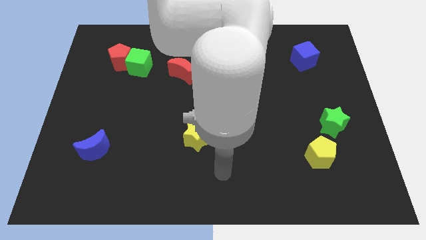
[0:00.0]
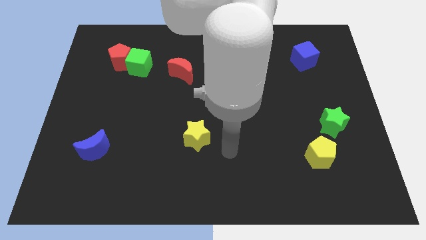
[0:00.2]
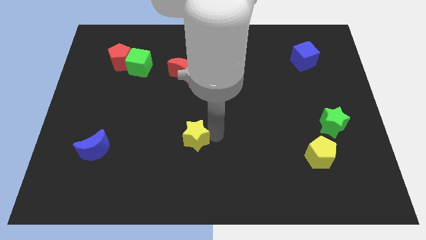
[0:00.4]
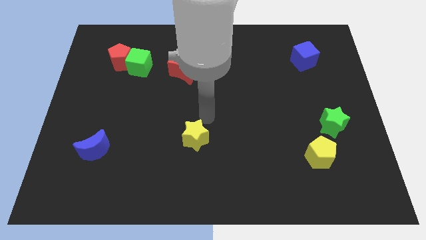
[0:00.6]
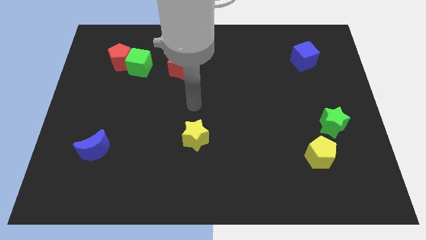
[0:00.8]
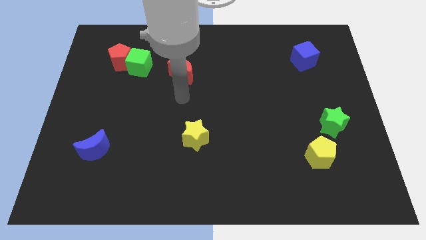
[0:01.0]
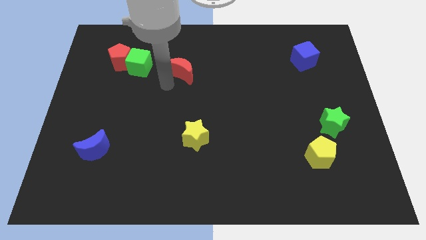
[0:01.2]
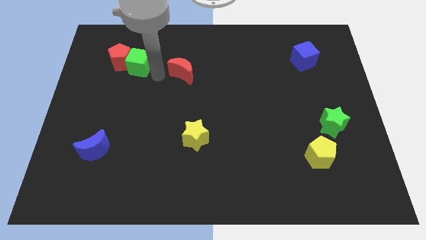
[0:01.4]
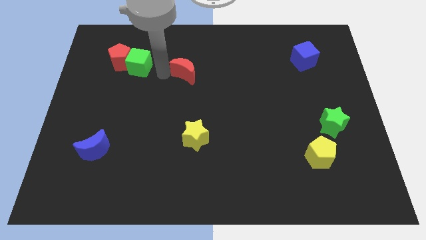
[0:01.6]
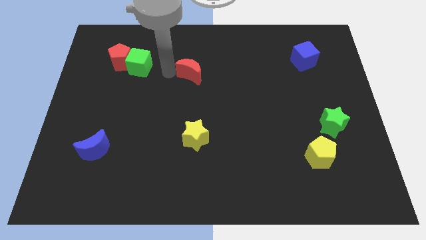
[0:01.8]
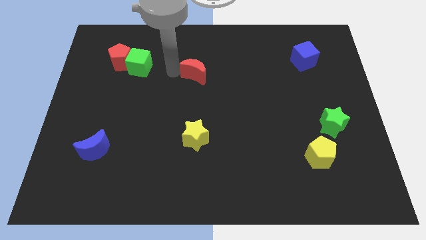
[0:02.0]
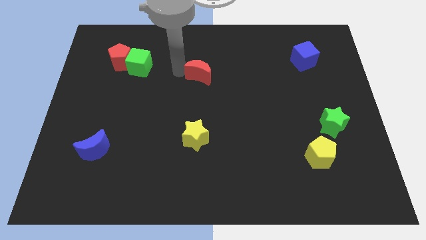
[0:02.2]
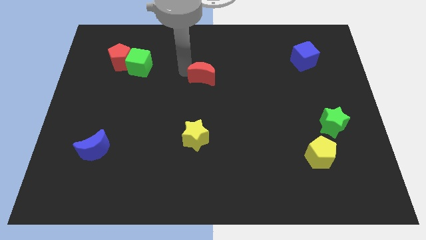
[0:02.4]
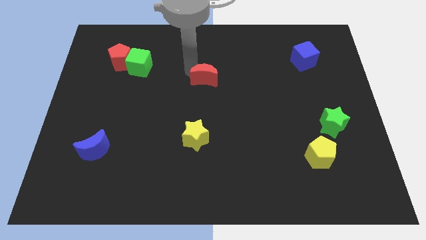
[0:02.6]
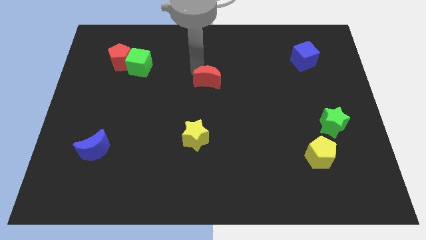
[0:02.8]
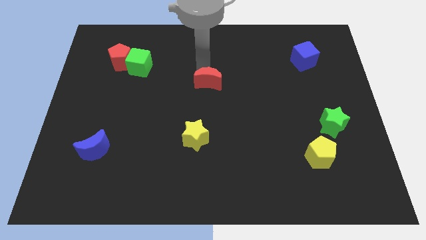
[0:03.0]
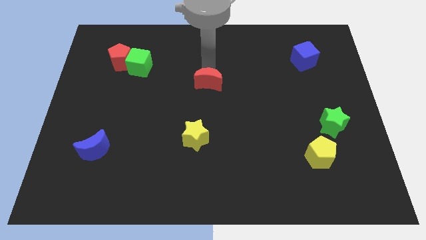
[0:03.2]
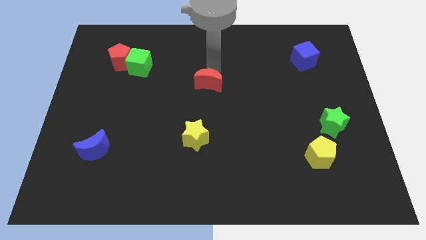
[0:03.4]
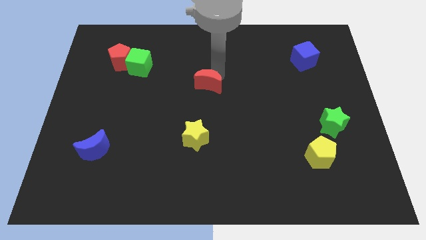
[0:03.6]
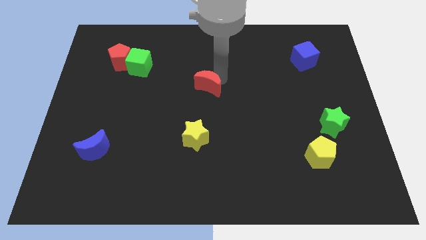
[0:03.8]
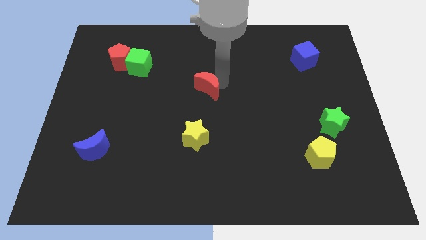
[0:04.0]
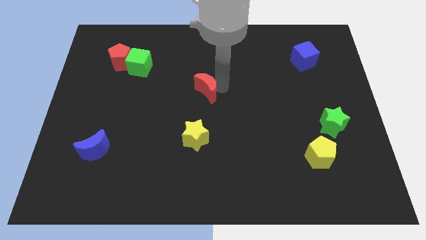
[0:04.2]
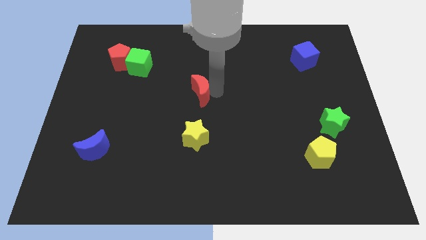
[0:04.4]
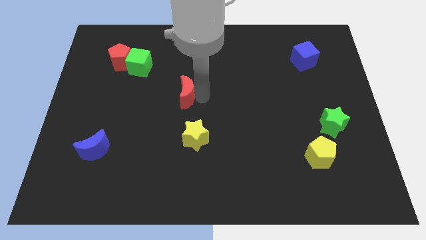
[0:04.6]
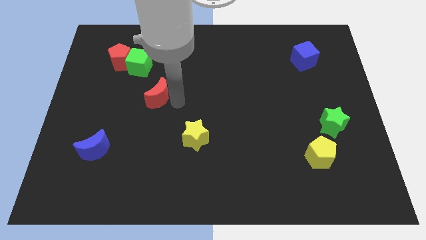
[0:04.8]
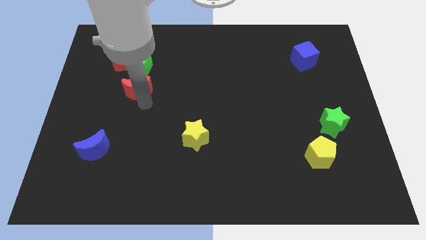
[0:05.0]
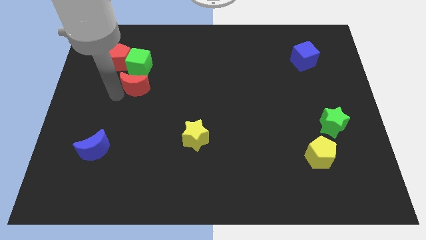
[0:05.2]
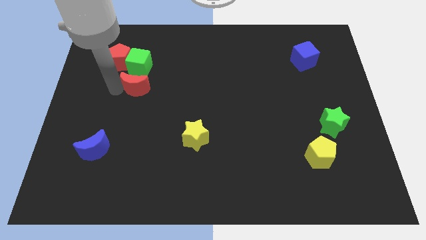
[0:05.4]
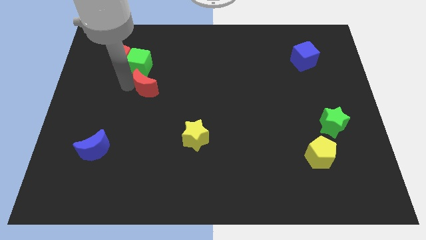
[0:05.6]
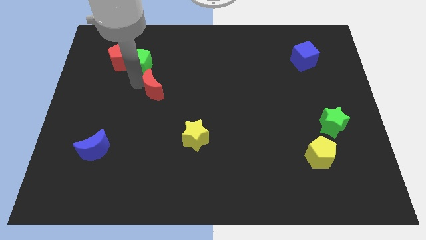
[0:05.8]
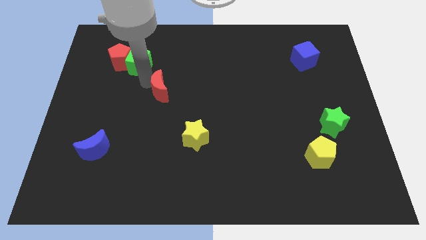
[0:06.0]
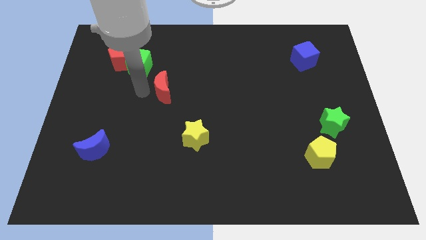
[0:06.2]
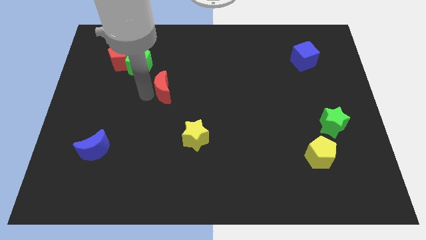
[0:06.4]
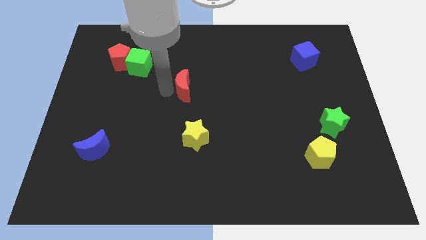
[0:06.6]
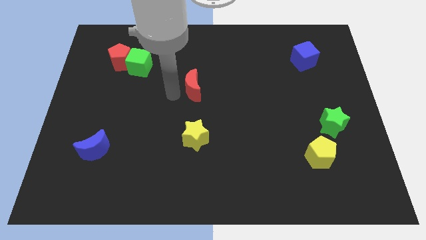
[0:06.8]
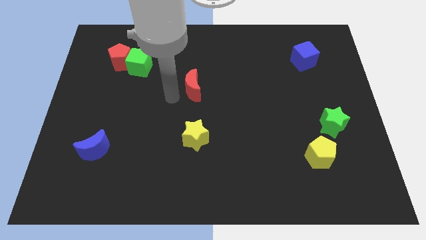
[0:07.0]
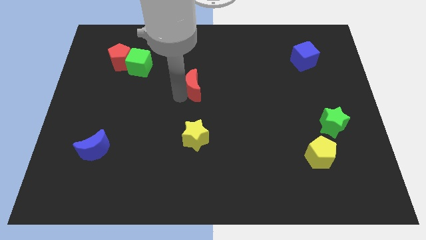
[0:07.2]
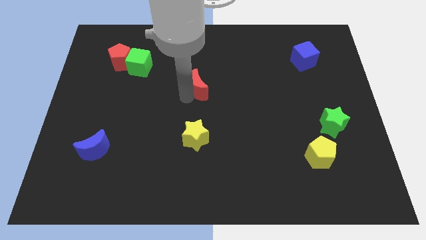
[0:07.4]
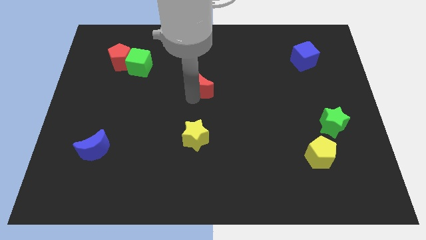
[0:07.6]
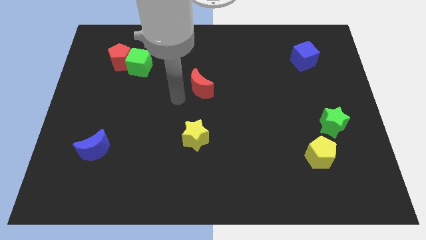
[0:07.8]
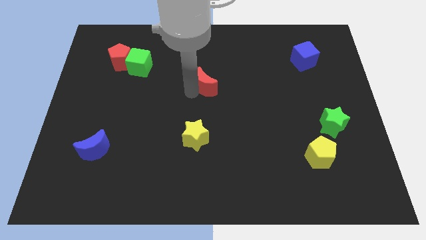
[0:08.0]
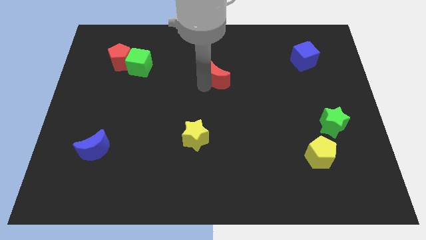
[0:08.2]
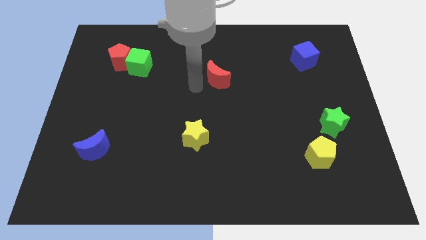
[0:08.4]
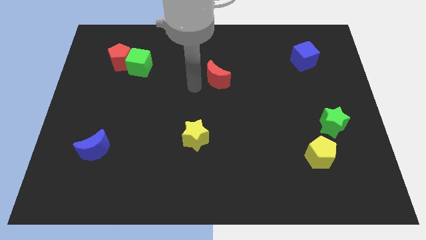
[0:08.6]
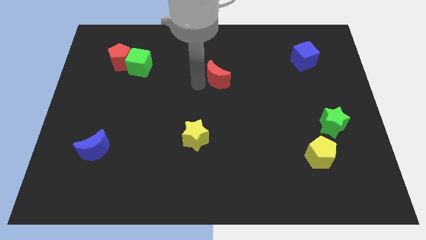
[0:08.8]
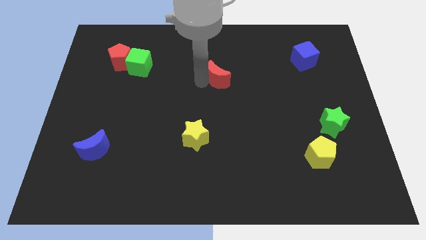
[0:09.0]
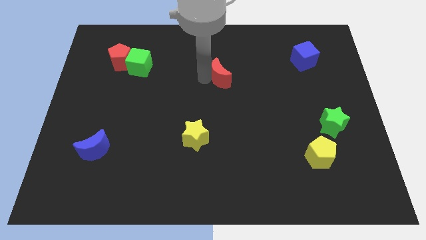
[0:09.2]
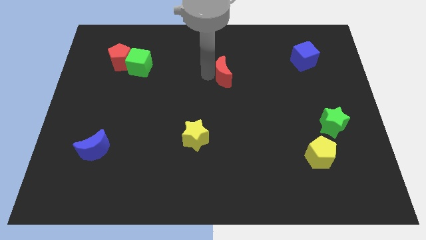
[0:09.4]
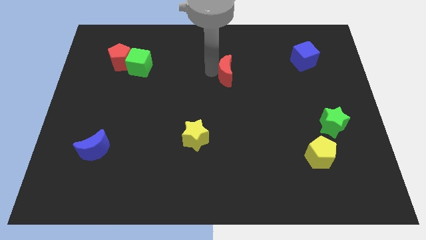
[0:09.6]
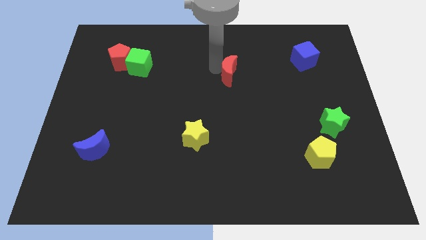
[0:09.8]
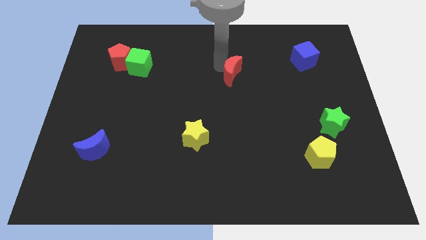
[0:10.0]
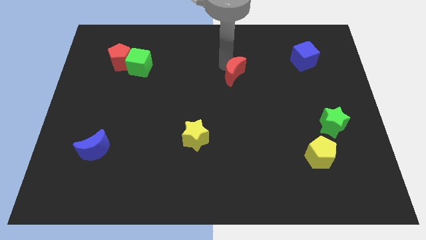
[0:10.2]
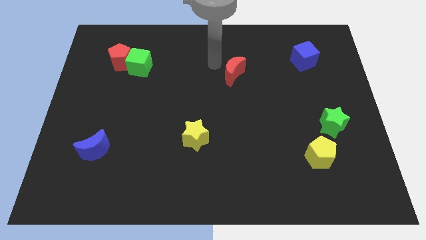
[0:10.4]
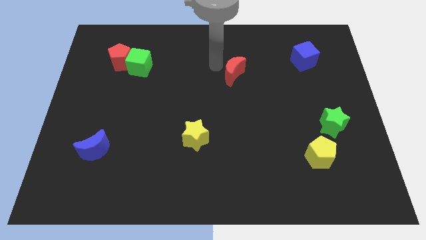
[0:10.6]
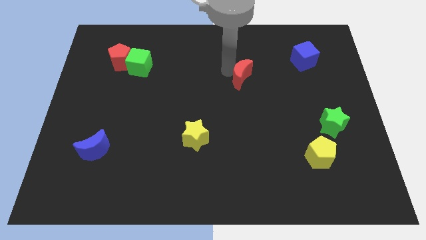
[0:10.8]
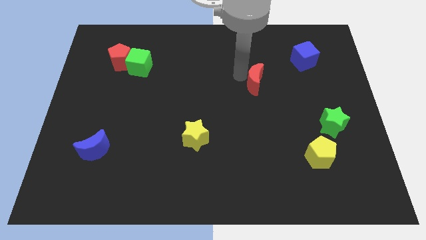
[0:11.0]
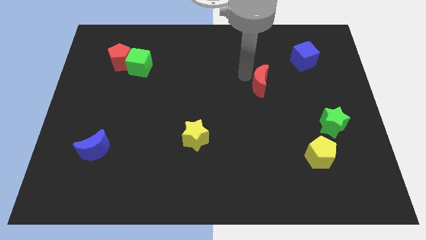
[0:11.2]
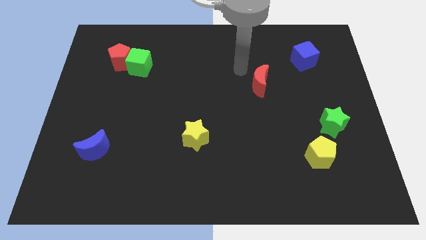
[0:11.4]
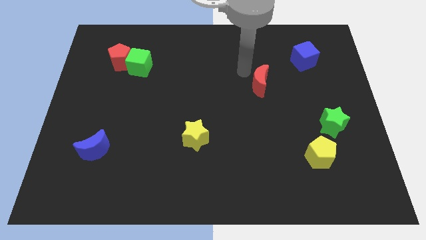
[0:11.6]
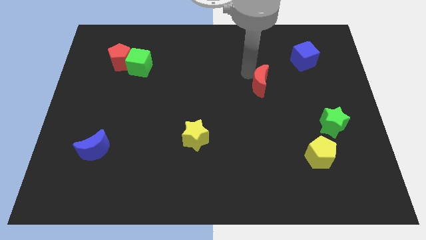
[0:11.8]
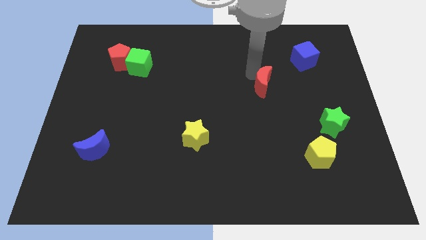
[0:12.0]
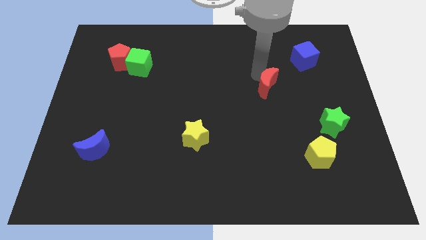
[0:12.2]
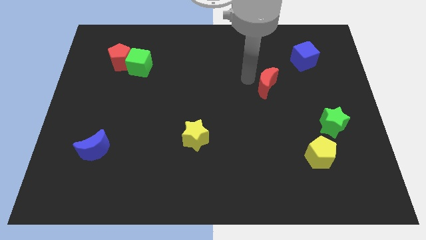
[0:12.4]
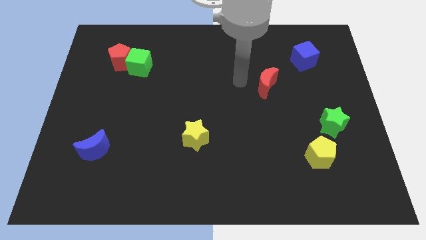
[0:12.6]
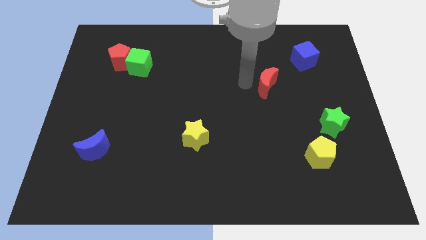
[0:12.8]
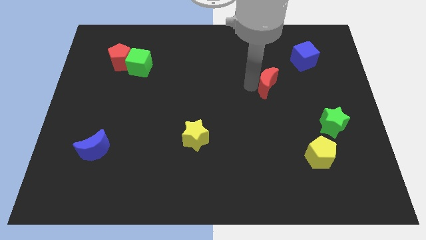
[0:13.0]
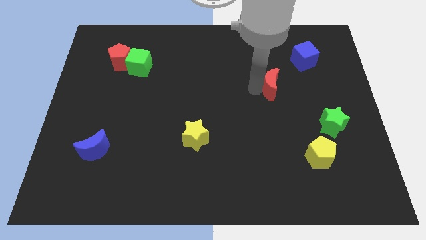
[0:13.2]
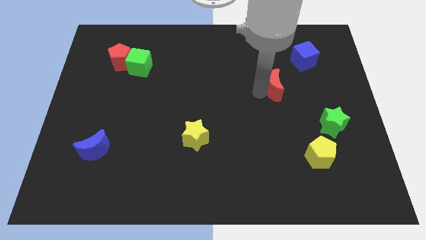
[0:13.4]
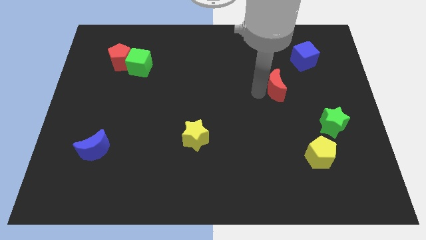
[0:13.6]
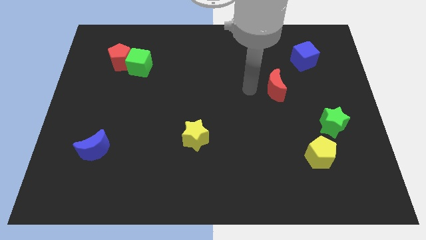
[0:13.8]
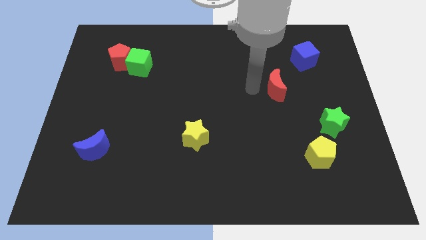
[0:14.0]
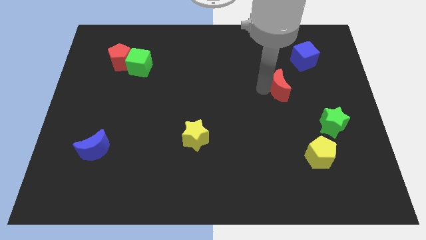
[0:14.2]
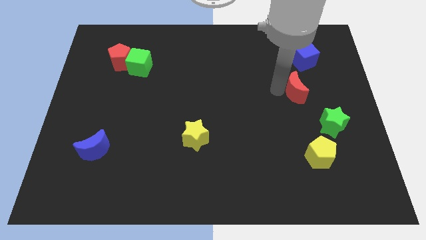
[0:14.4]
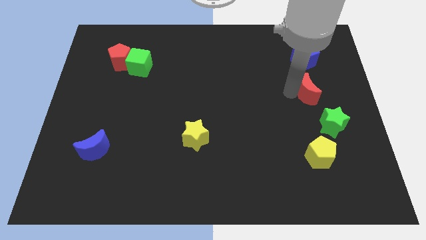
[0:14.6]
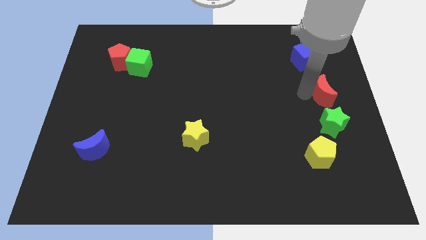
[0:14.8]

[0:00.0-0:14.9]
slide the red moon to the right side
